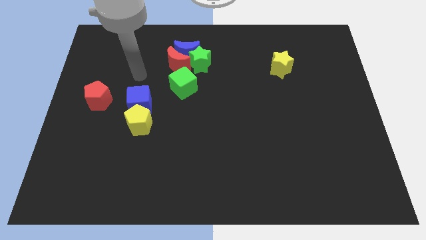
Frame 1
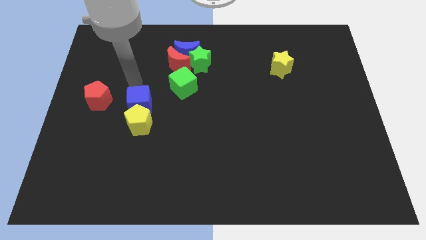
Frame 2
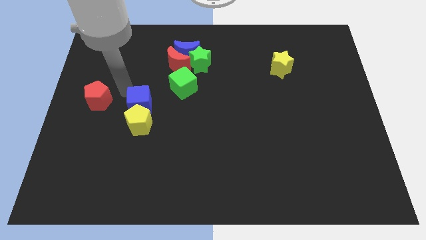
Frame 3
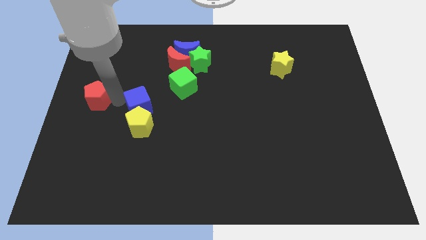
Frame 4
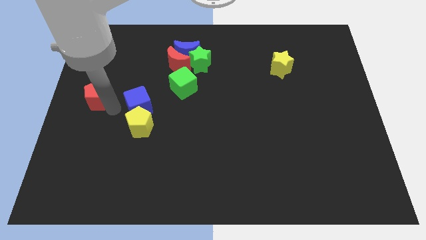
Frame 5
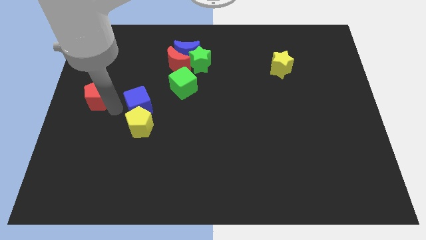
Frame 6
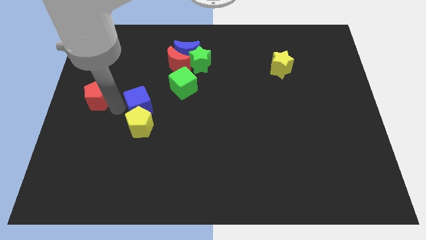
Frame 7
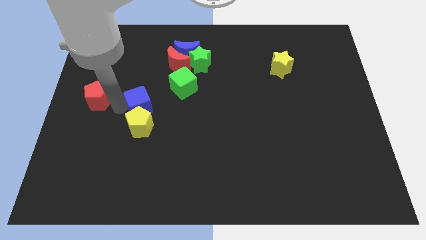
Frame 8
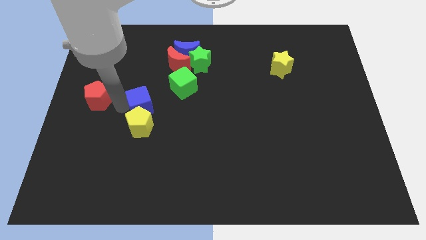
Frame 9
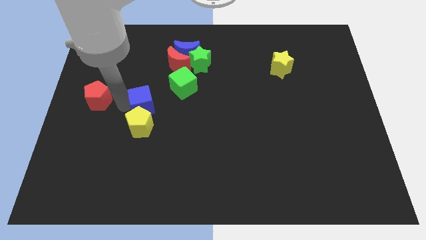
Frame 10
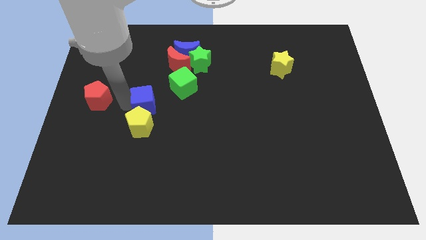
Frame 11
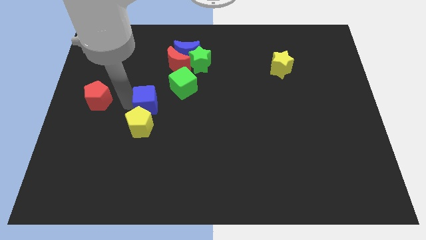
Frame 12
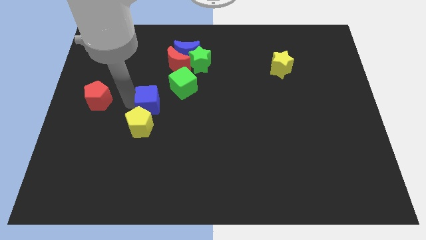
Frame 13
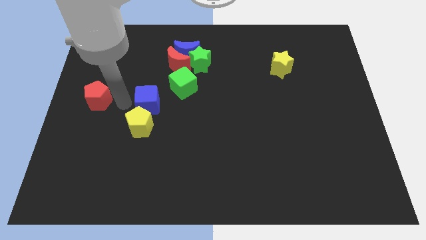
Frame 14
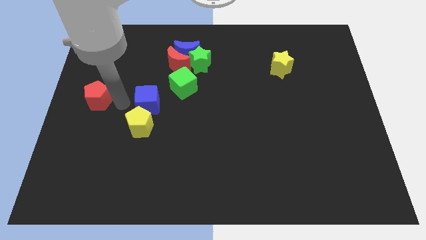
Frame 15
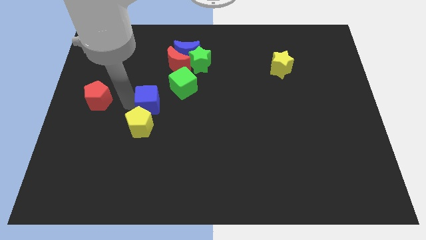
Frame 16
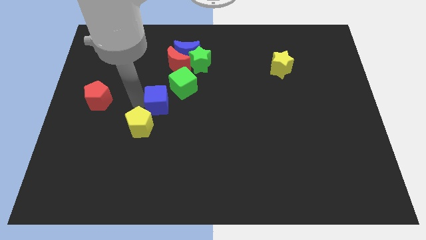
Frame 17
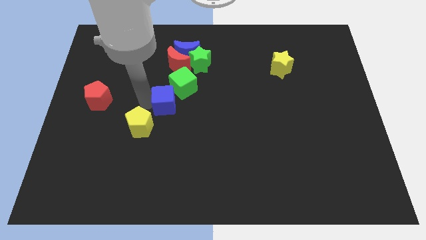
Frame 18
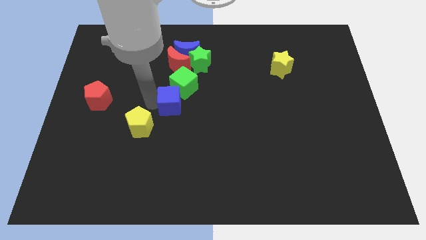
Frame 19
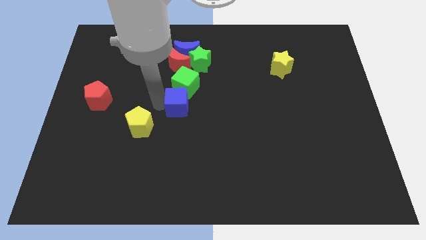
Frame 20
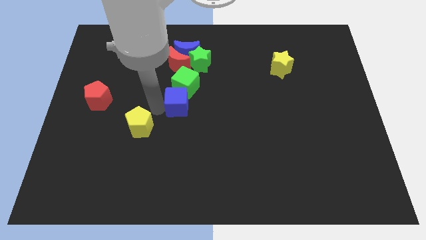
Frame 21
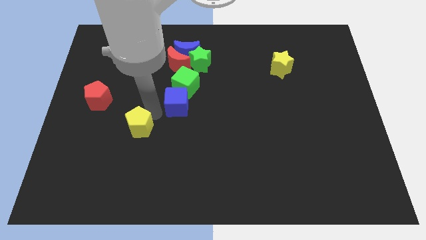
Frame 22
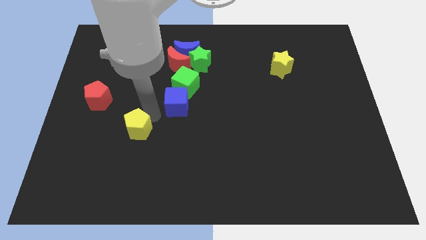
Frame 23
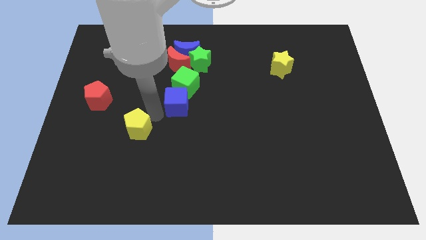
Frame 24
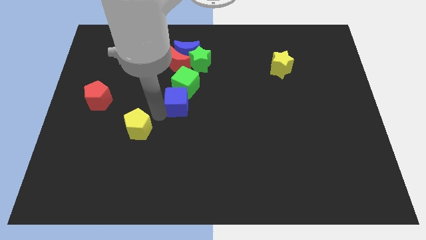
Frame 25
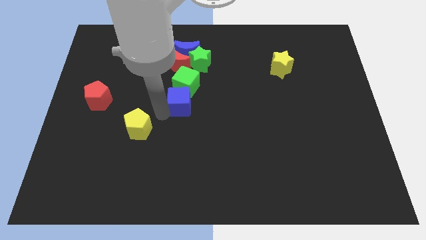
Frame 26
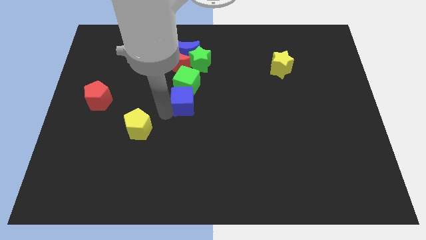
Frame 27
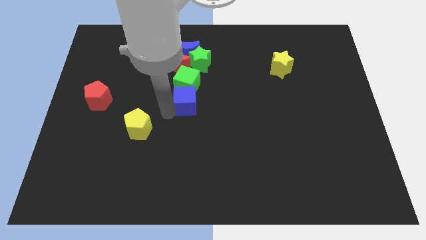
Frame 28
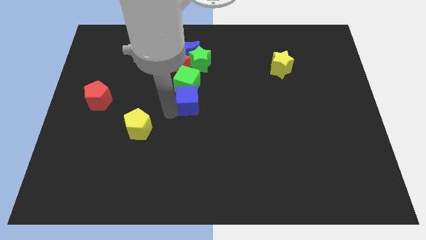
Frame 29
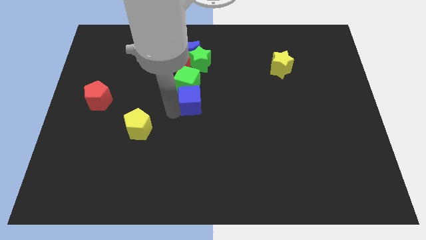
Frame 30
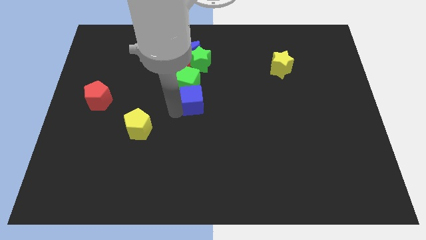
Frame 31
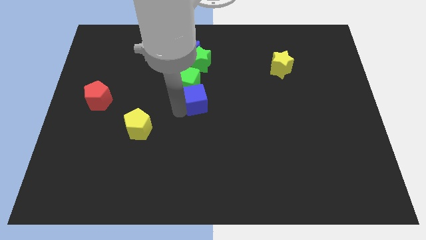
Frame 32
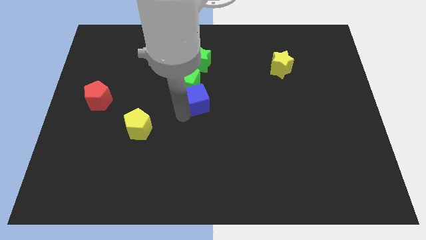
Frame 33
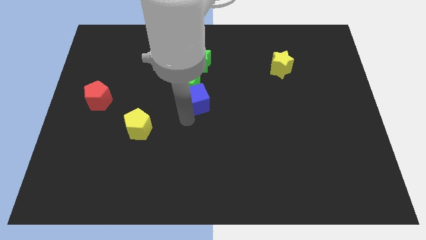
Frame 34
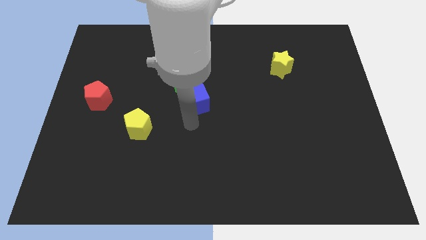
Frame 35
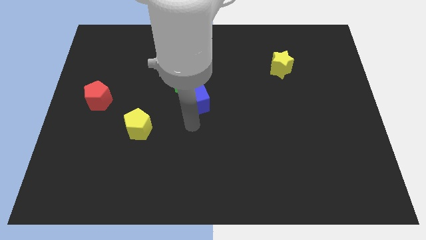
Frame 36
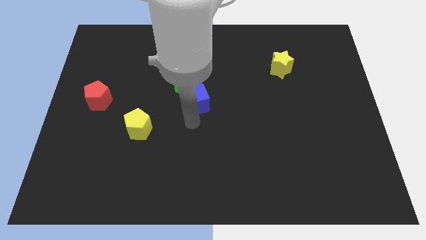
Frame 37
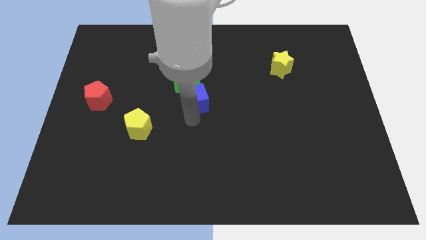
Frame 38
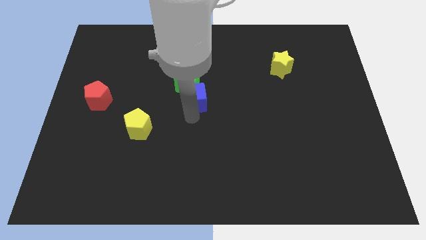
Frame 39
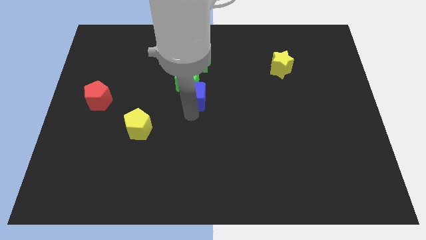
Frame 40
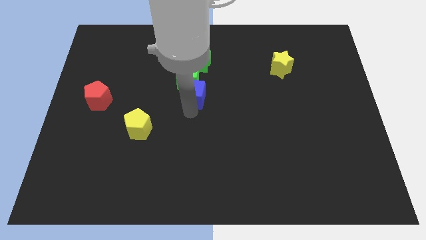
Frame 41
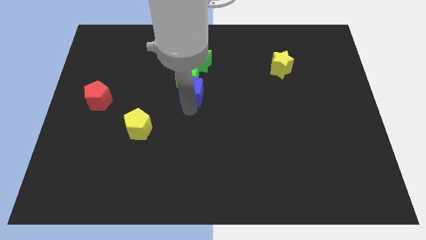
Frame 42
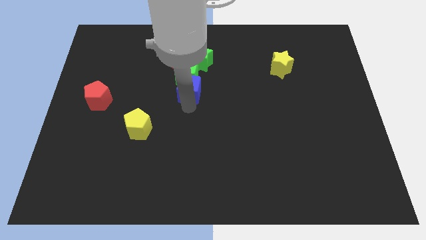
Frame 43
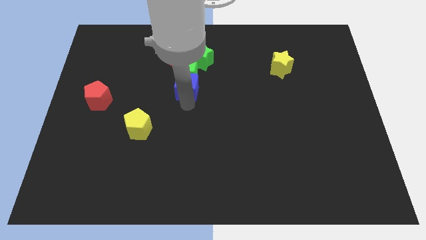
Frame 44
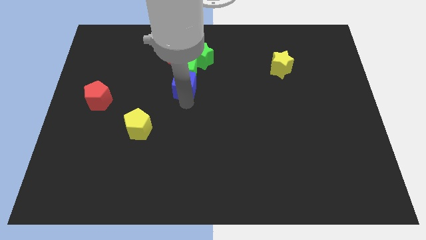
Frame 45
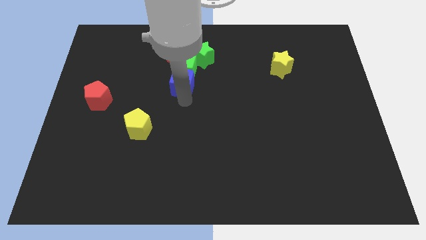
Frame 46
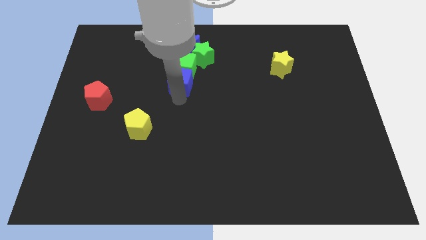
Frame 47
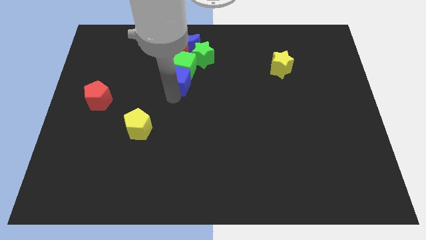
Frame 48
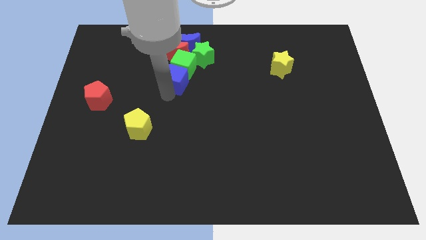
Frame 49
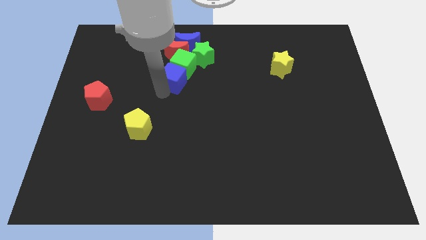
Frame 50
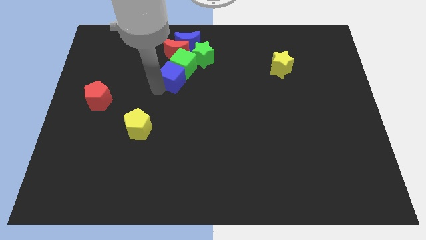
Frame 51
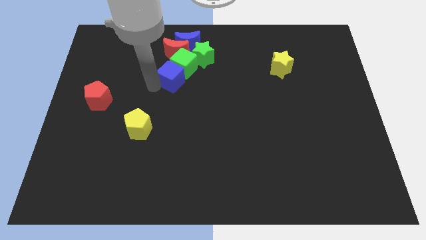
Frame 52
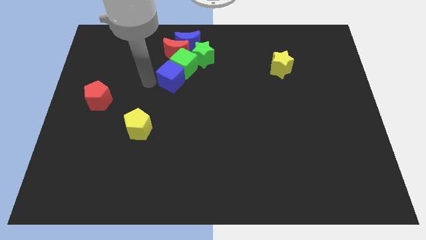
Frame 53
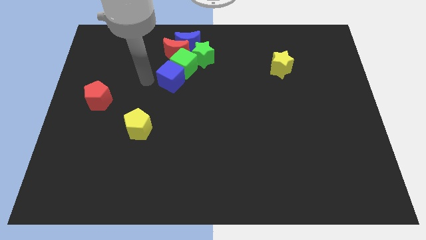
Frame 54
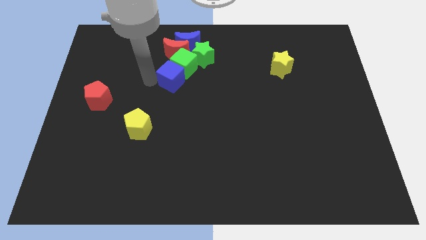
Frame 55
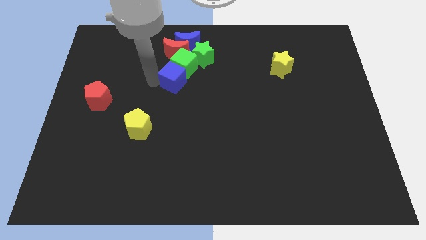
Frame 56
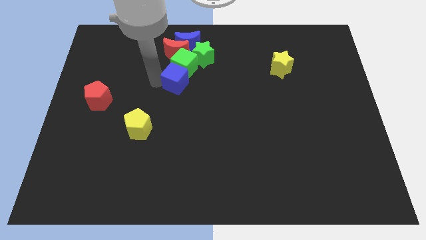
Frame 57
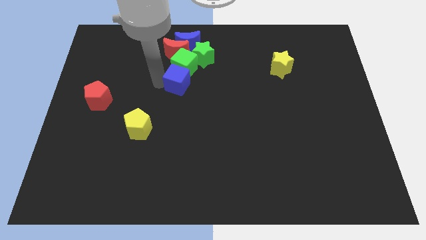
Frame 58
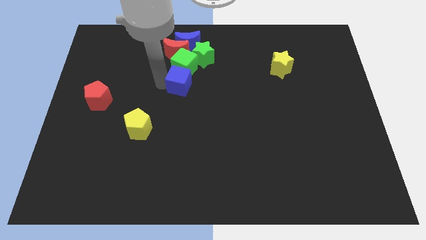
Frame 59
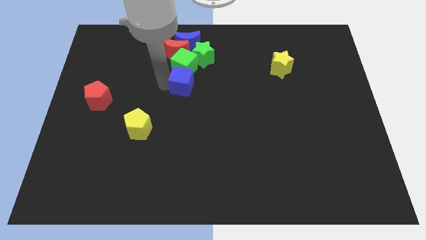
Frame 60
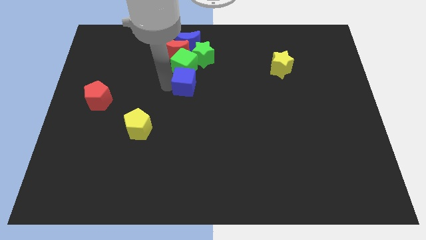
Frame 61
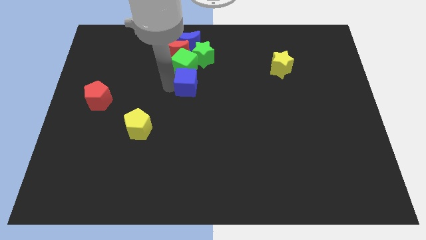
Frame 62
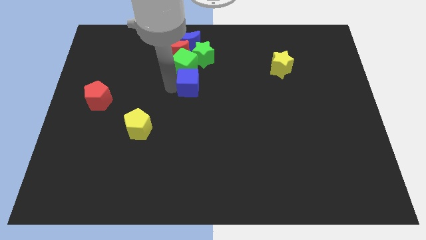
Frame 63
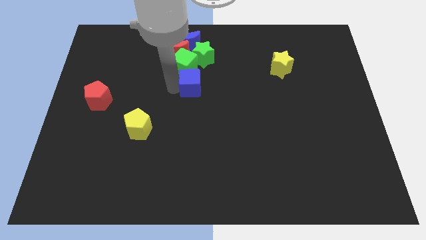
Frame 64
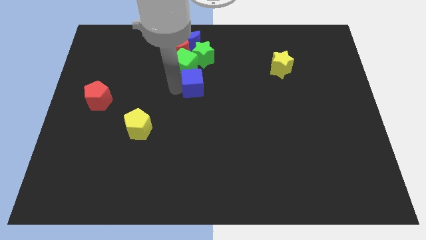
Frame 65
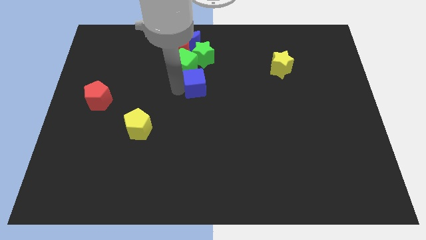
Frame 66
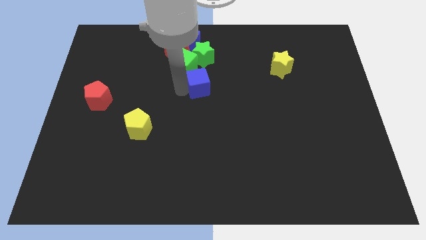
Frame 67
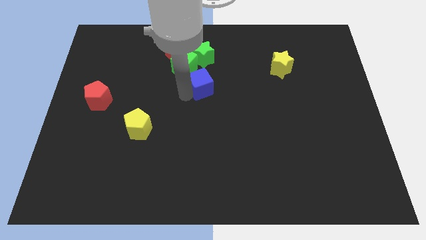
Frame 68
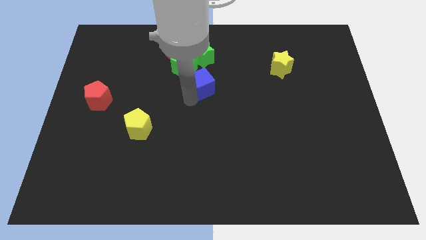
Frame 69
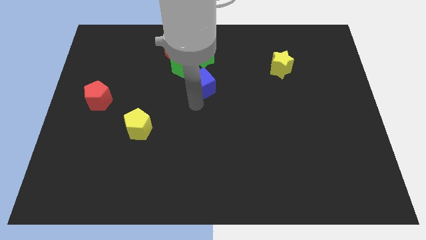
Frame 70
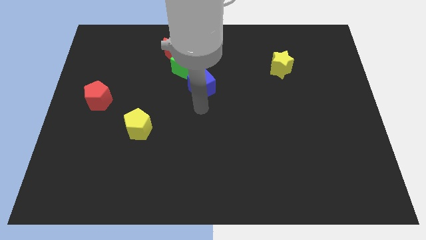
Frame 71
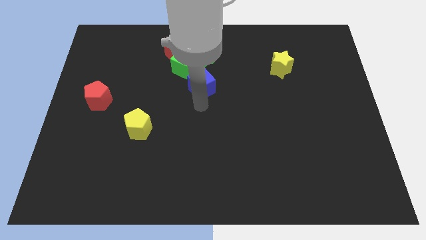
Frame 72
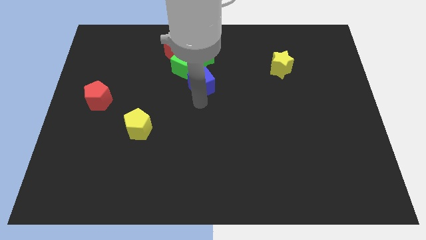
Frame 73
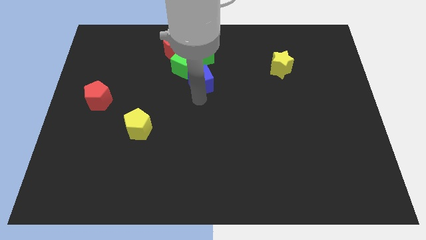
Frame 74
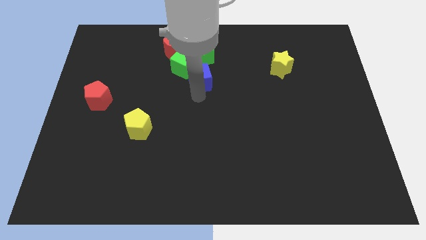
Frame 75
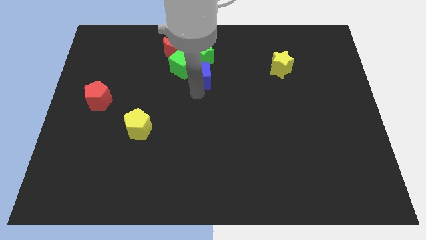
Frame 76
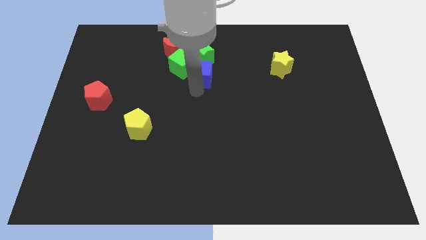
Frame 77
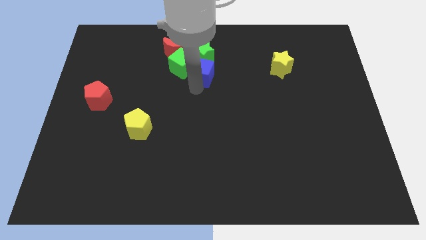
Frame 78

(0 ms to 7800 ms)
move the blue cube to the green star
